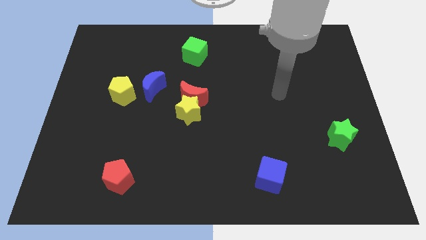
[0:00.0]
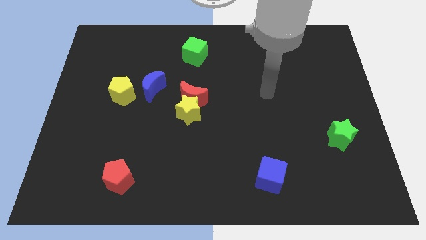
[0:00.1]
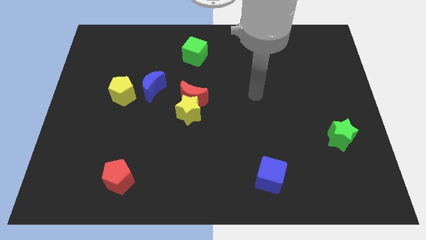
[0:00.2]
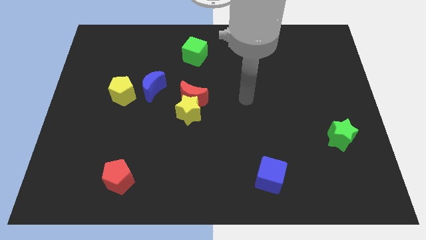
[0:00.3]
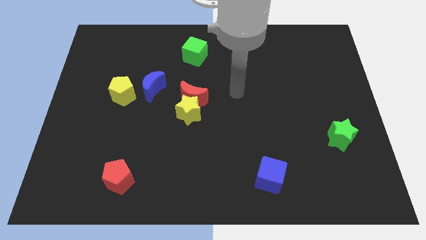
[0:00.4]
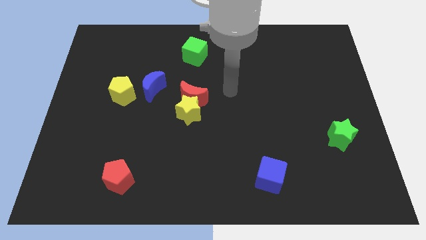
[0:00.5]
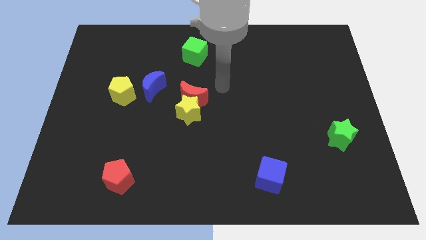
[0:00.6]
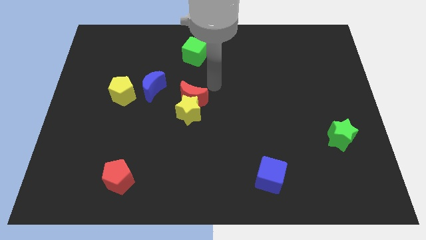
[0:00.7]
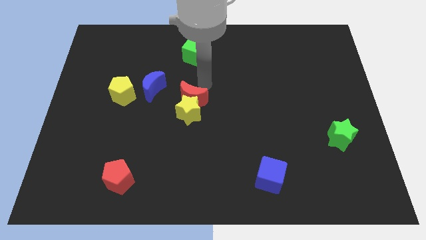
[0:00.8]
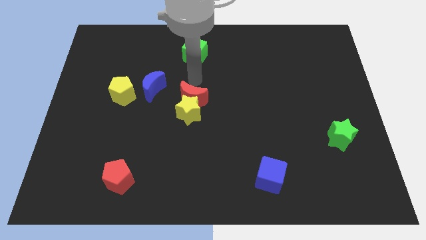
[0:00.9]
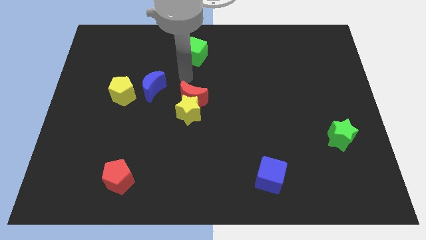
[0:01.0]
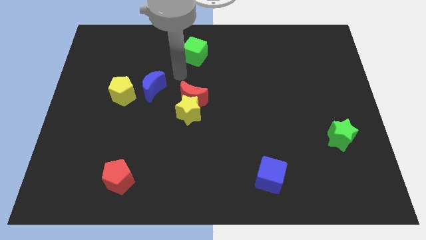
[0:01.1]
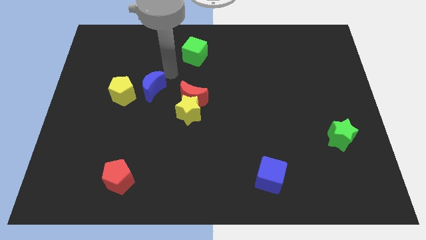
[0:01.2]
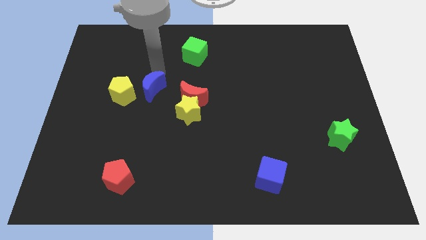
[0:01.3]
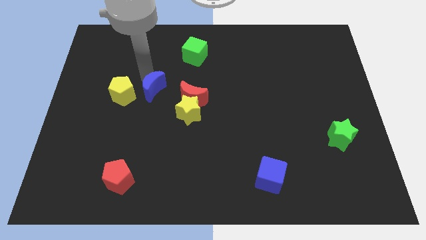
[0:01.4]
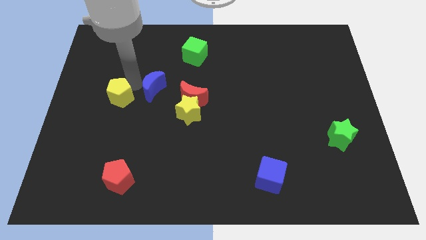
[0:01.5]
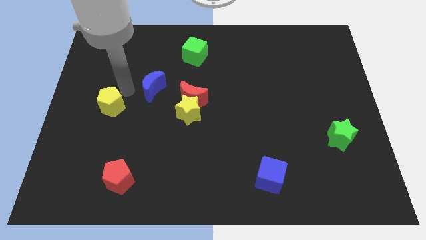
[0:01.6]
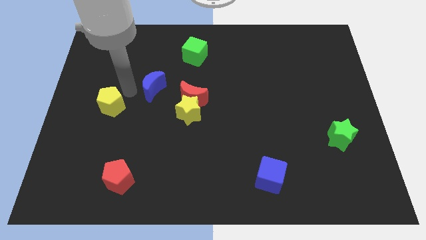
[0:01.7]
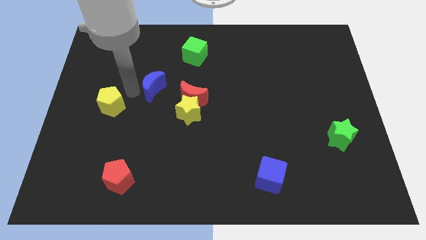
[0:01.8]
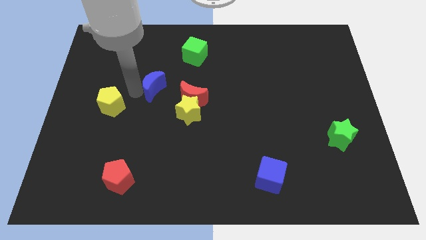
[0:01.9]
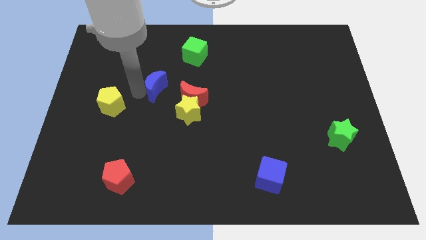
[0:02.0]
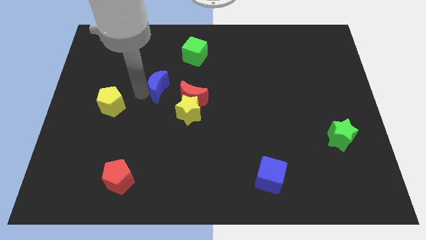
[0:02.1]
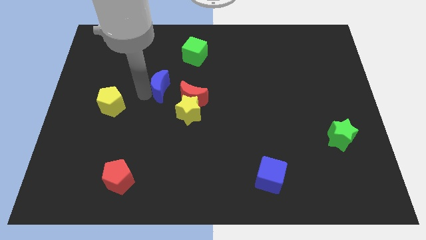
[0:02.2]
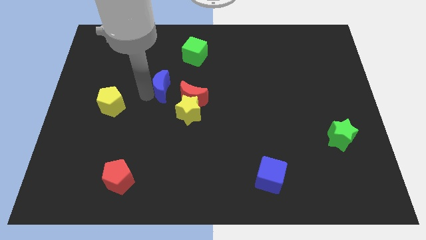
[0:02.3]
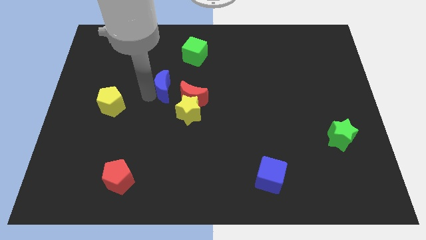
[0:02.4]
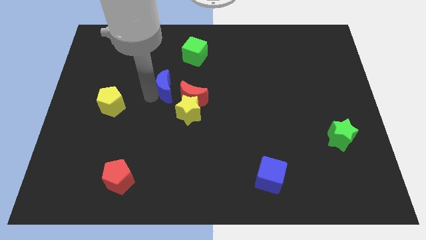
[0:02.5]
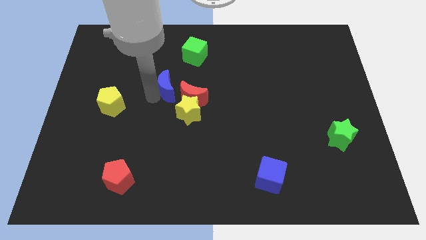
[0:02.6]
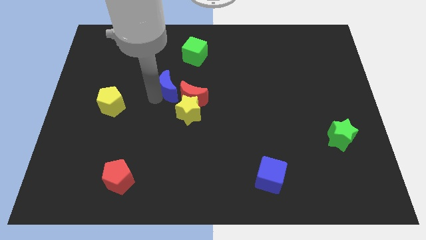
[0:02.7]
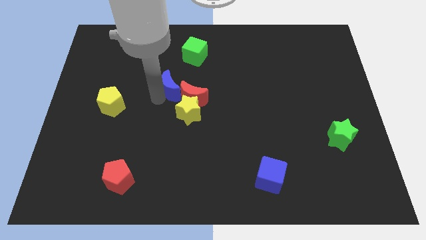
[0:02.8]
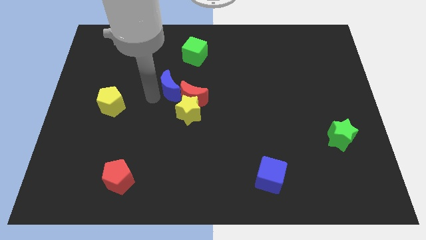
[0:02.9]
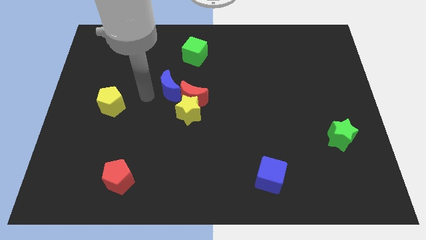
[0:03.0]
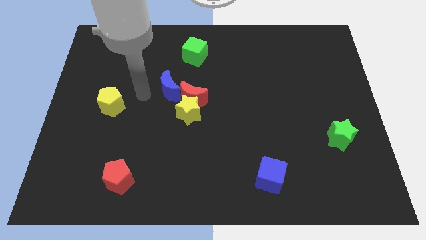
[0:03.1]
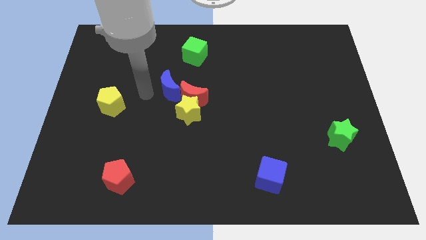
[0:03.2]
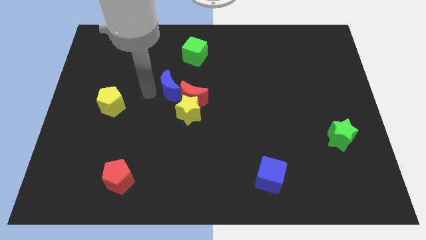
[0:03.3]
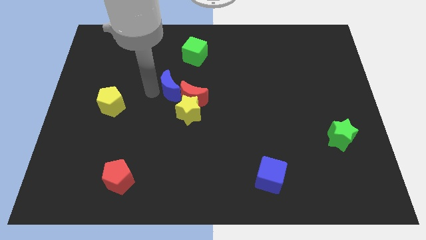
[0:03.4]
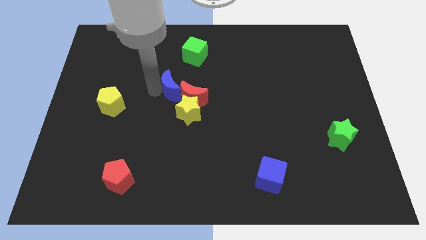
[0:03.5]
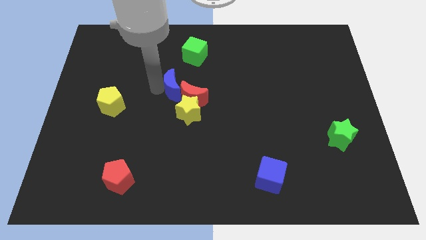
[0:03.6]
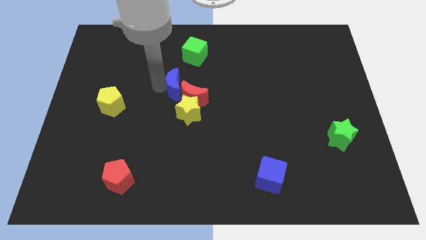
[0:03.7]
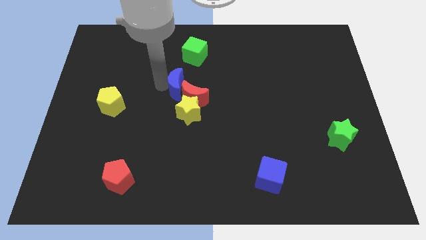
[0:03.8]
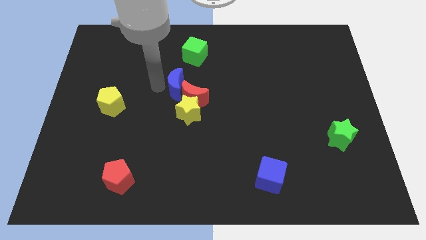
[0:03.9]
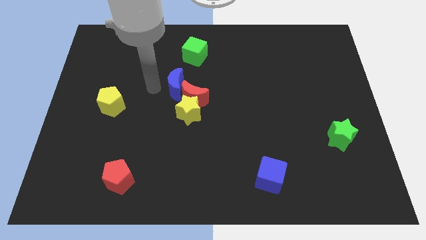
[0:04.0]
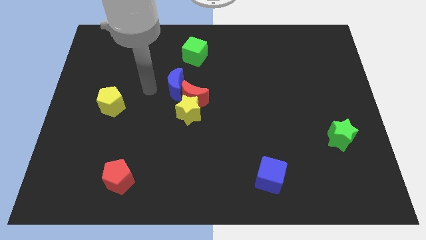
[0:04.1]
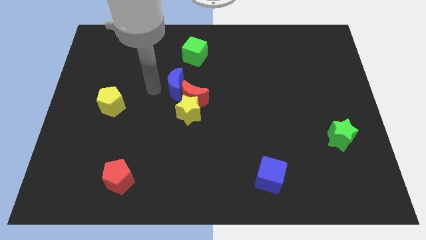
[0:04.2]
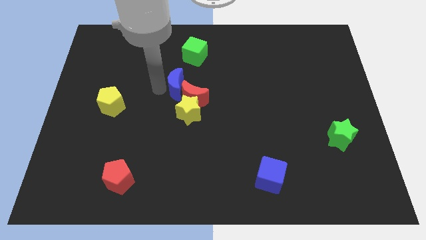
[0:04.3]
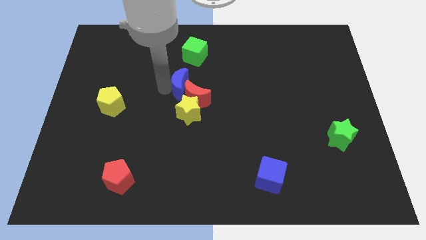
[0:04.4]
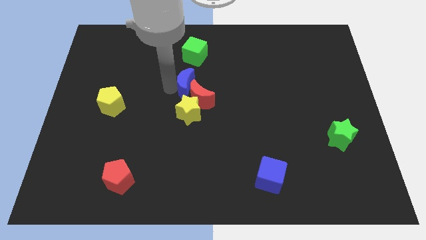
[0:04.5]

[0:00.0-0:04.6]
push the blue moon to the right a little

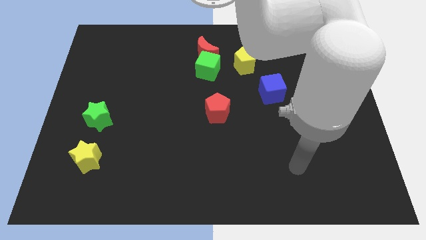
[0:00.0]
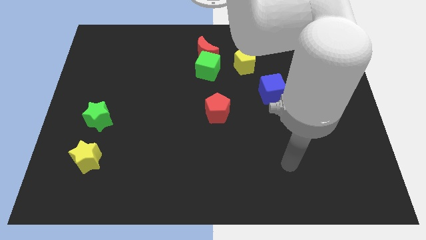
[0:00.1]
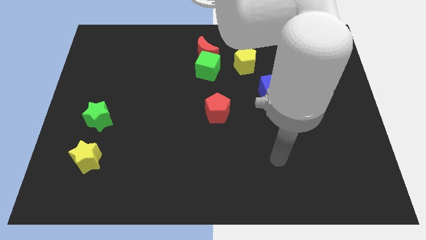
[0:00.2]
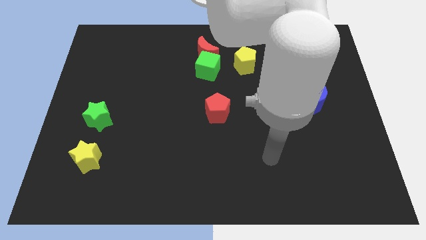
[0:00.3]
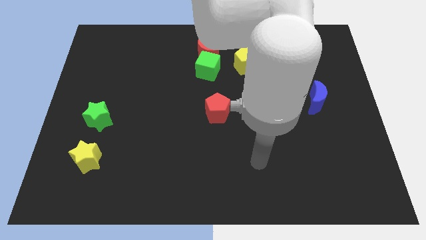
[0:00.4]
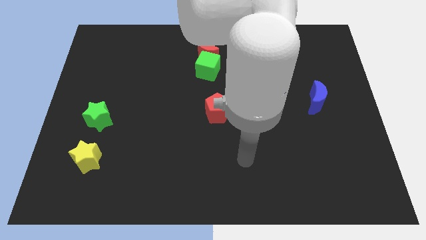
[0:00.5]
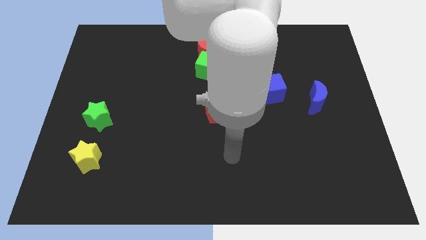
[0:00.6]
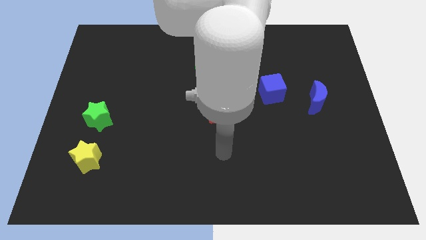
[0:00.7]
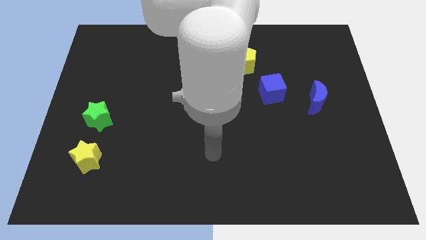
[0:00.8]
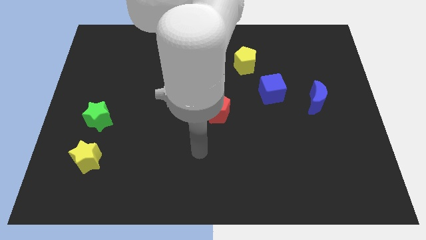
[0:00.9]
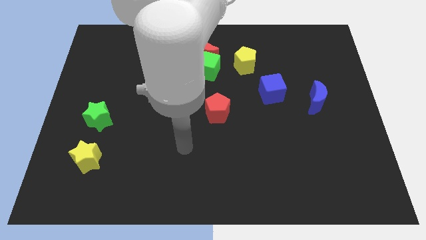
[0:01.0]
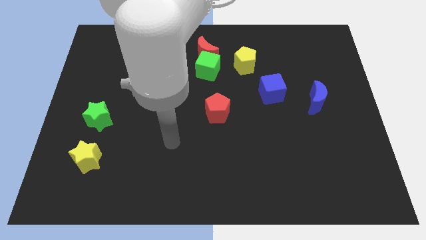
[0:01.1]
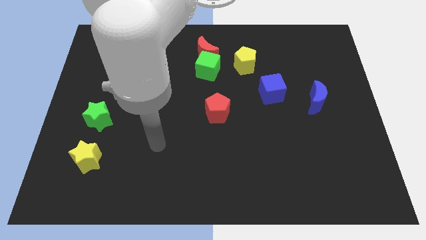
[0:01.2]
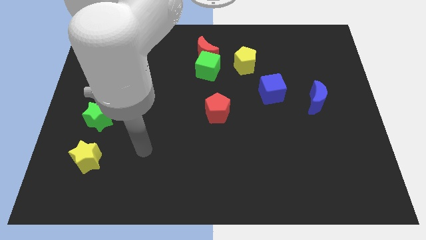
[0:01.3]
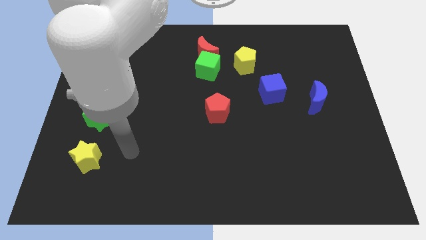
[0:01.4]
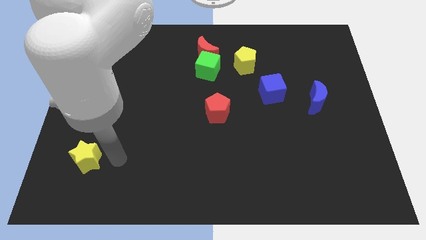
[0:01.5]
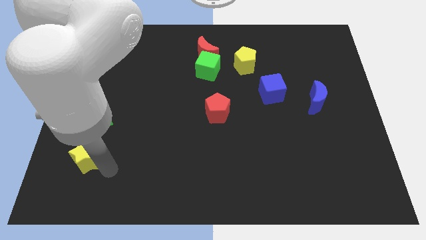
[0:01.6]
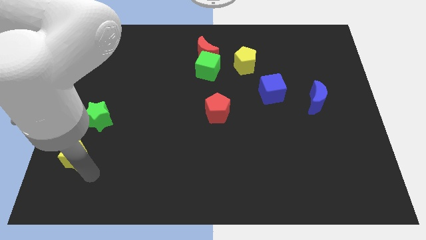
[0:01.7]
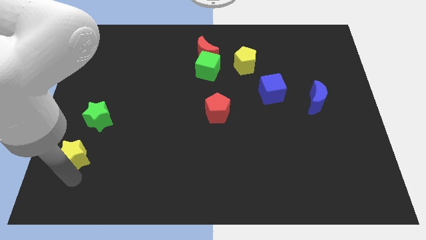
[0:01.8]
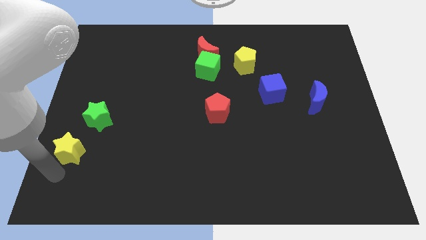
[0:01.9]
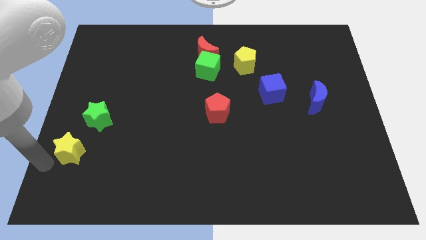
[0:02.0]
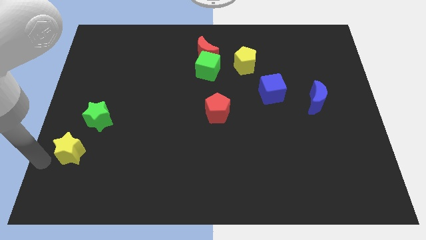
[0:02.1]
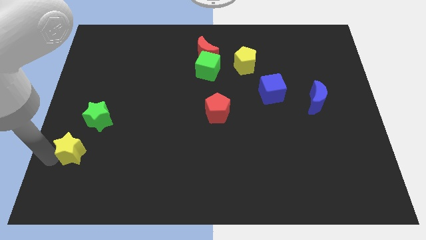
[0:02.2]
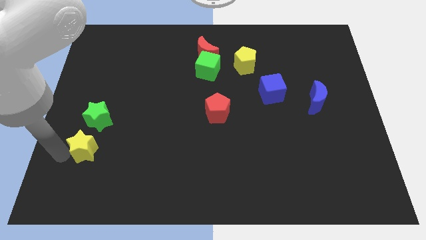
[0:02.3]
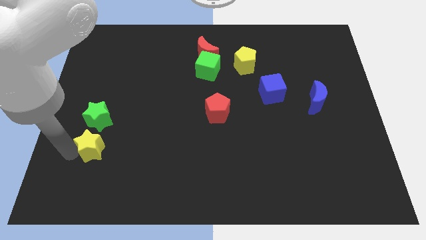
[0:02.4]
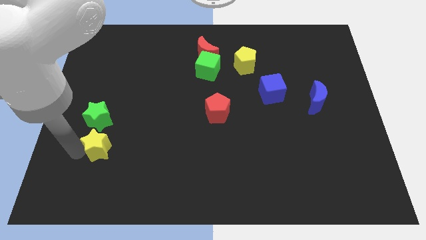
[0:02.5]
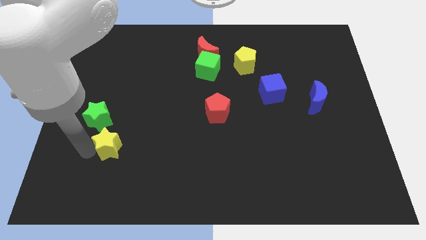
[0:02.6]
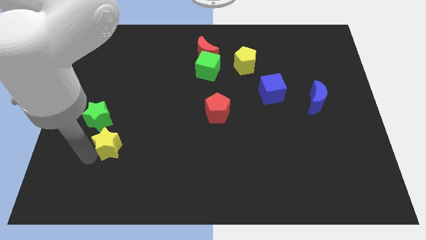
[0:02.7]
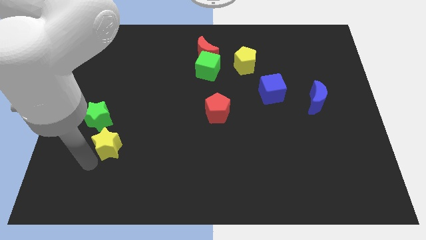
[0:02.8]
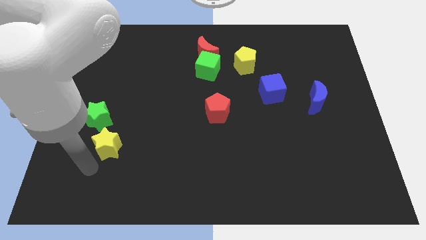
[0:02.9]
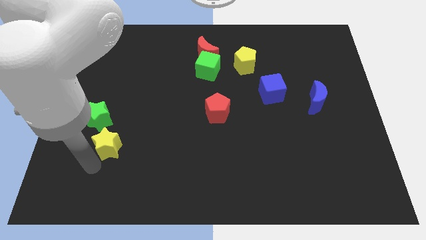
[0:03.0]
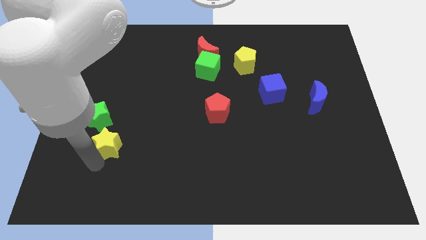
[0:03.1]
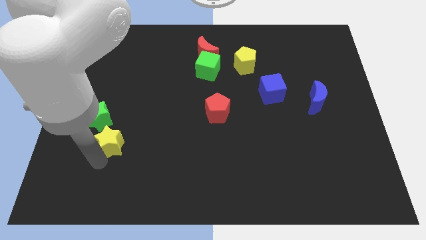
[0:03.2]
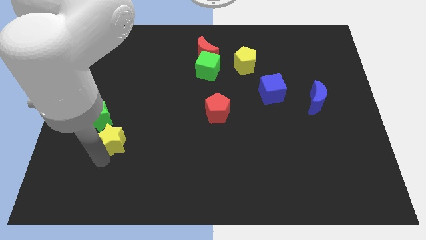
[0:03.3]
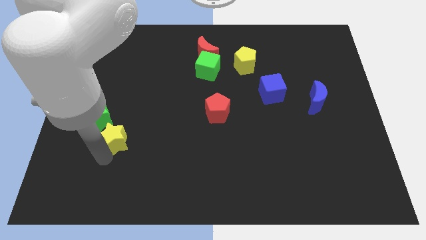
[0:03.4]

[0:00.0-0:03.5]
slightly push the yellow star diagonally upwards and to the right
